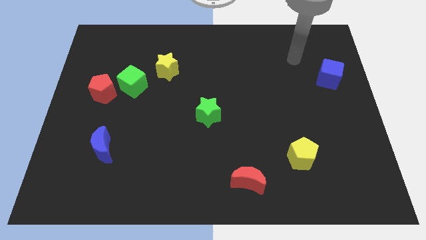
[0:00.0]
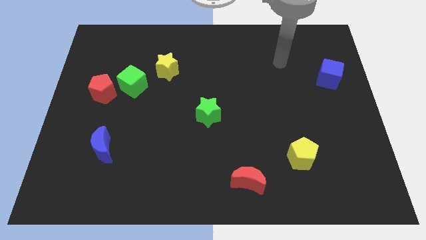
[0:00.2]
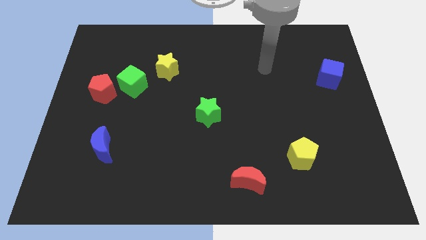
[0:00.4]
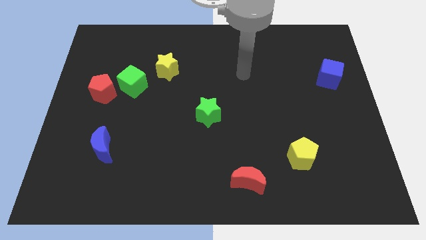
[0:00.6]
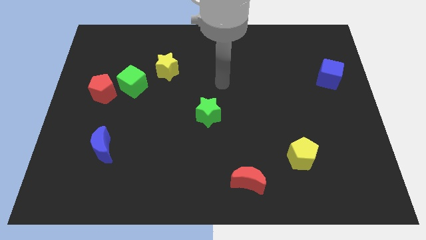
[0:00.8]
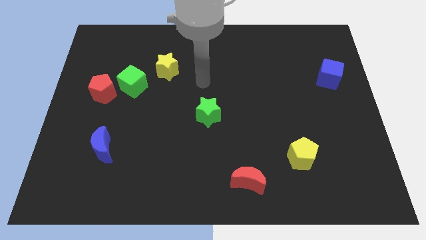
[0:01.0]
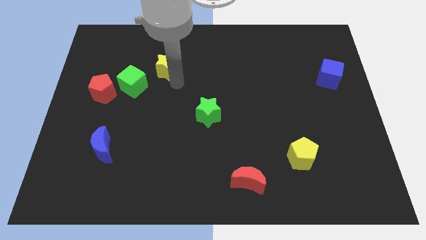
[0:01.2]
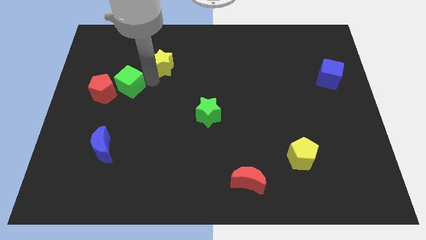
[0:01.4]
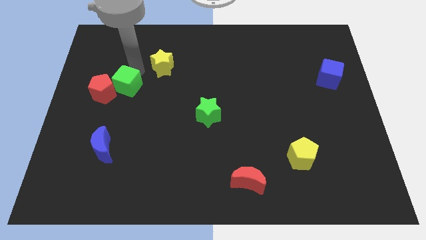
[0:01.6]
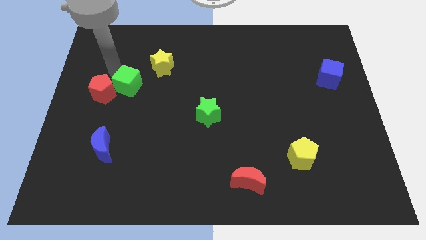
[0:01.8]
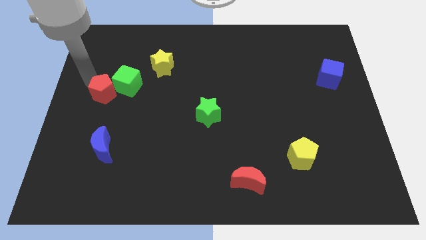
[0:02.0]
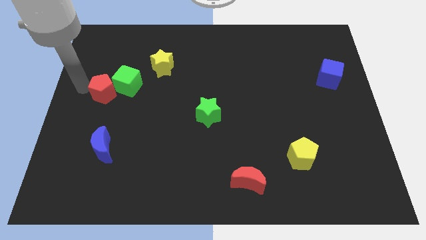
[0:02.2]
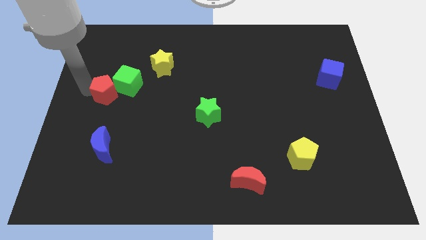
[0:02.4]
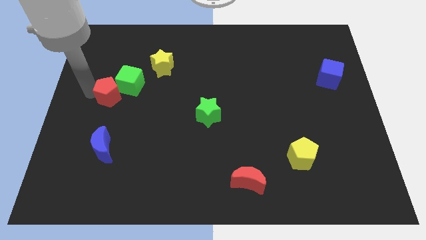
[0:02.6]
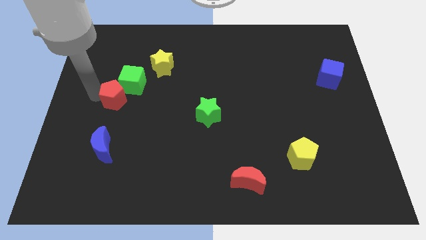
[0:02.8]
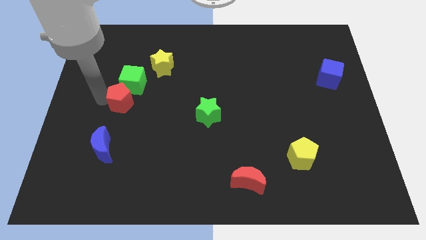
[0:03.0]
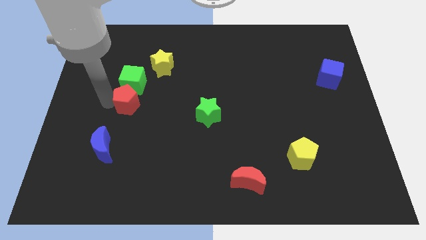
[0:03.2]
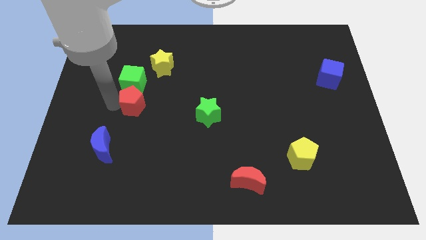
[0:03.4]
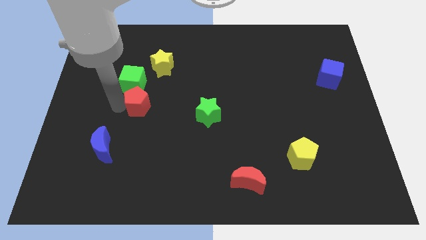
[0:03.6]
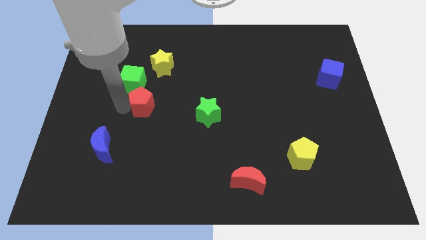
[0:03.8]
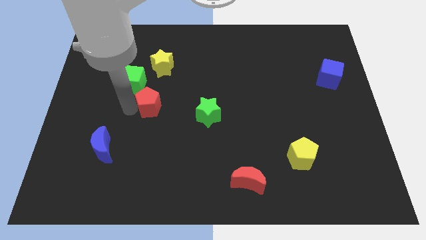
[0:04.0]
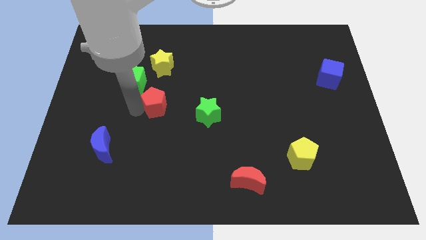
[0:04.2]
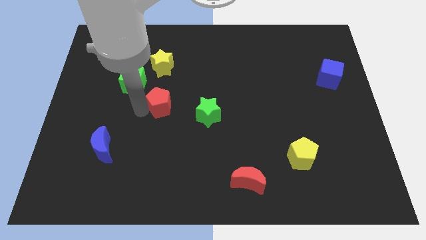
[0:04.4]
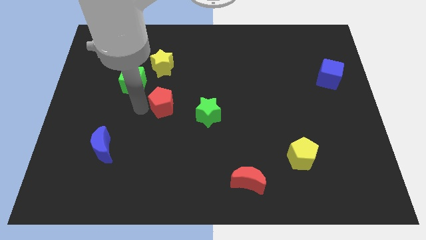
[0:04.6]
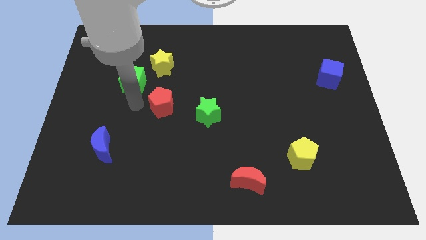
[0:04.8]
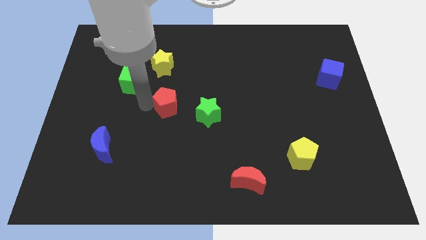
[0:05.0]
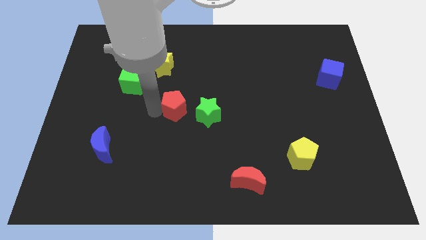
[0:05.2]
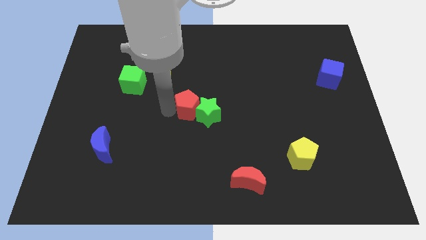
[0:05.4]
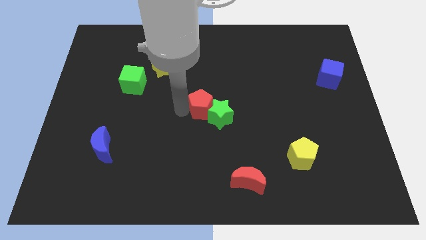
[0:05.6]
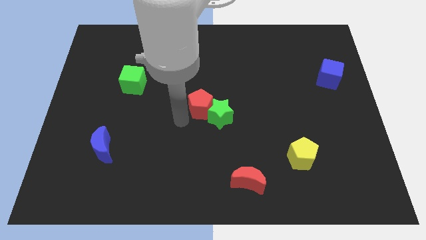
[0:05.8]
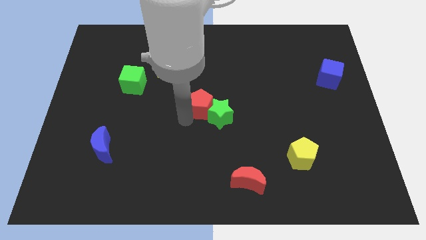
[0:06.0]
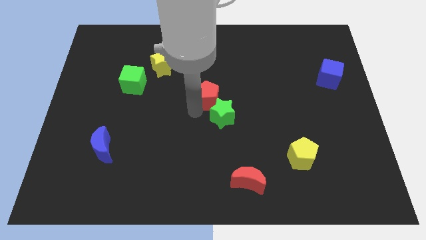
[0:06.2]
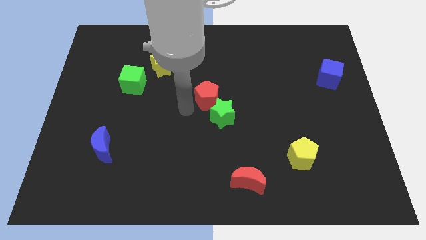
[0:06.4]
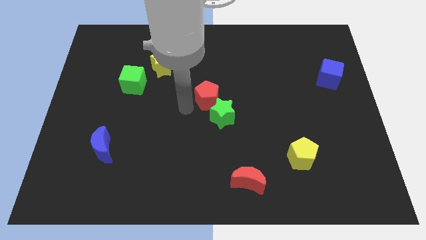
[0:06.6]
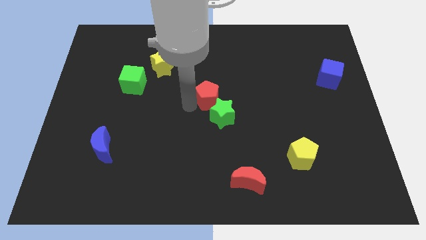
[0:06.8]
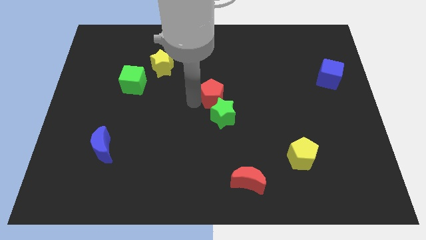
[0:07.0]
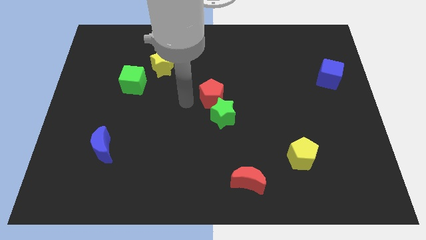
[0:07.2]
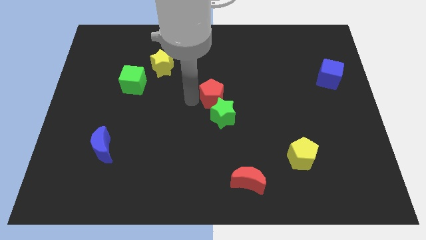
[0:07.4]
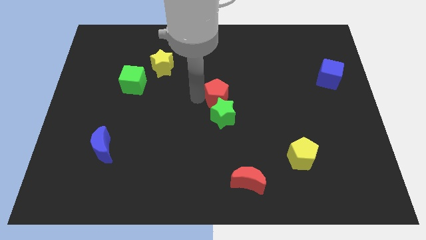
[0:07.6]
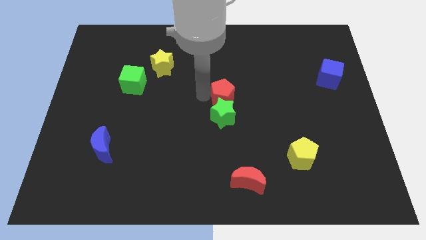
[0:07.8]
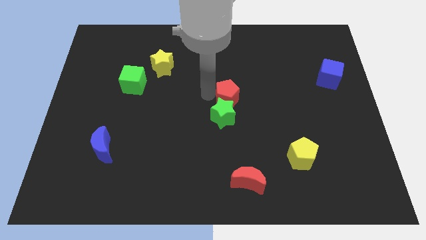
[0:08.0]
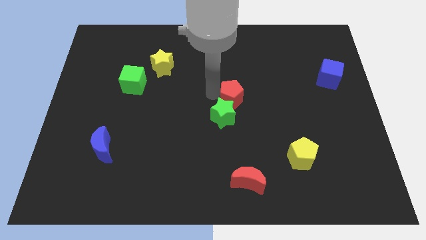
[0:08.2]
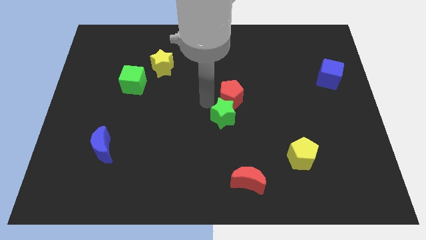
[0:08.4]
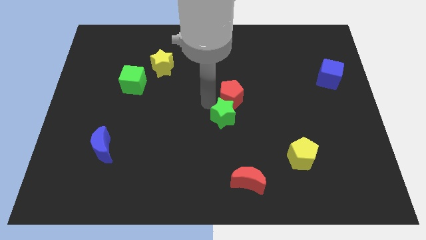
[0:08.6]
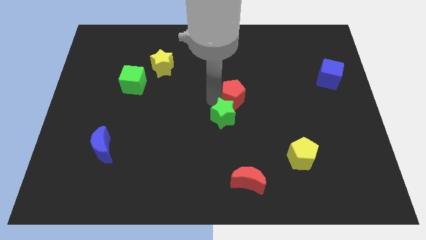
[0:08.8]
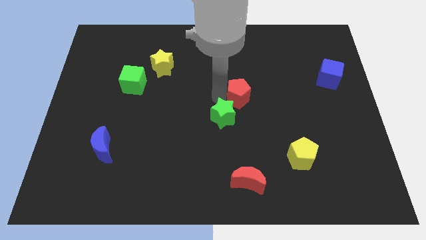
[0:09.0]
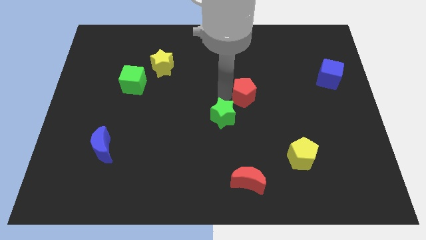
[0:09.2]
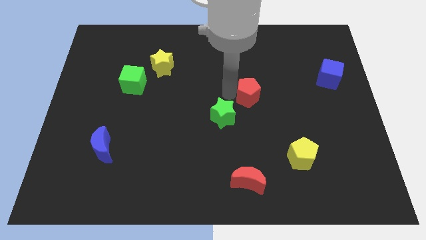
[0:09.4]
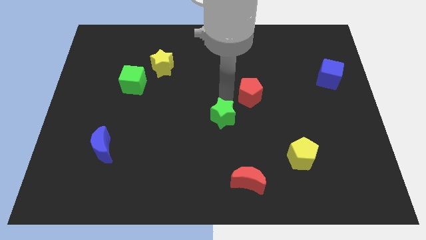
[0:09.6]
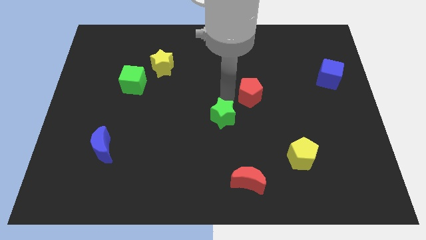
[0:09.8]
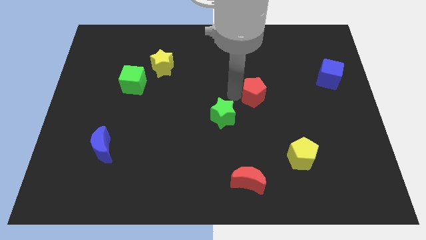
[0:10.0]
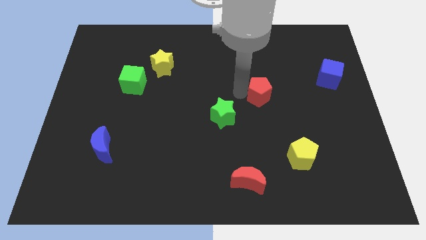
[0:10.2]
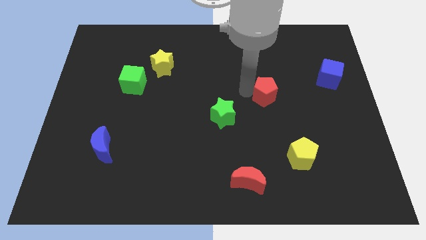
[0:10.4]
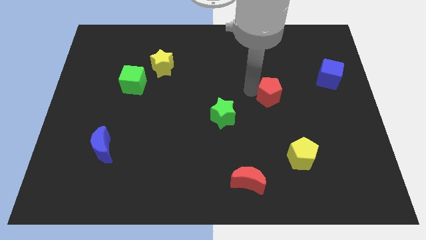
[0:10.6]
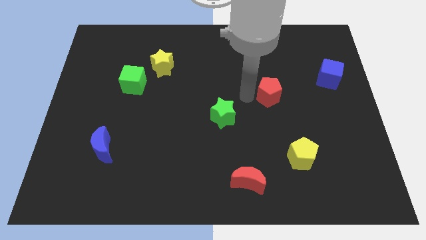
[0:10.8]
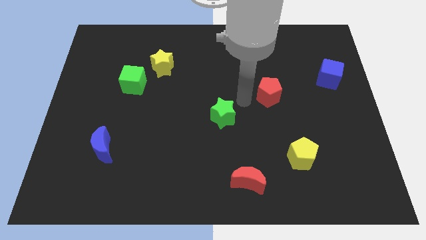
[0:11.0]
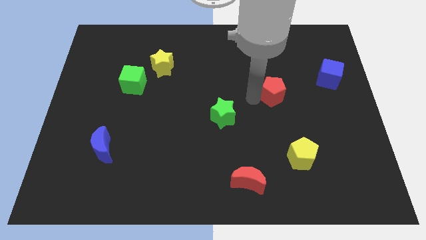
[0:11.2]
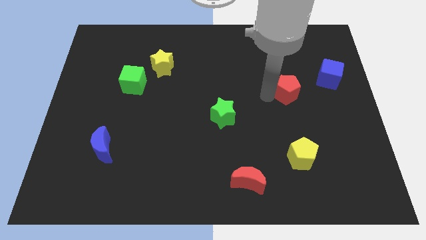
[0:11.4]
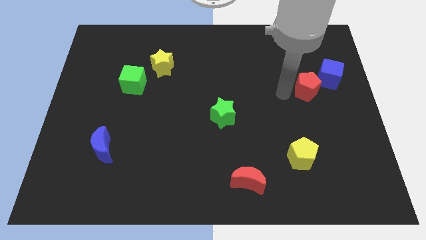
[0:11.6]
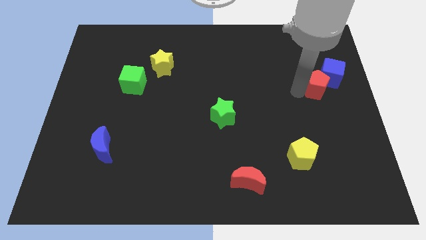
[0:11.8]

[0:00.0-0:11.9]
push the red pentagon to the blue cube
